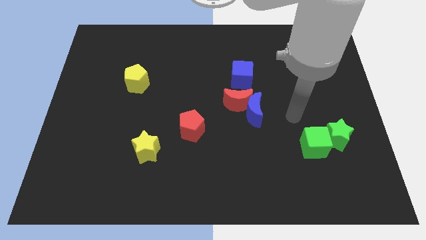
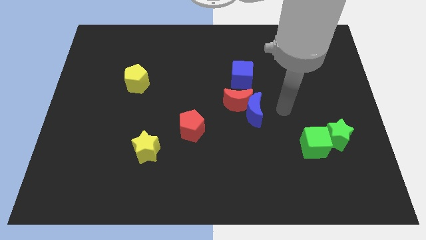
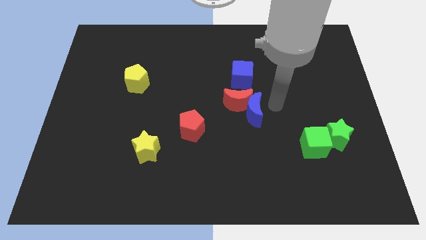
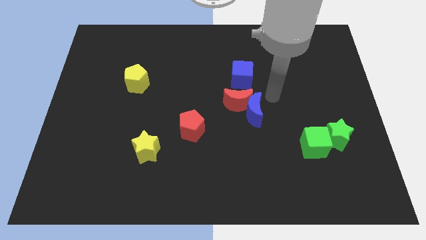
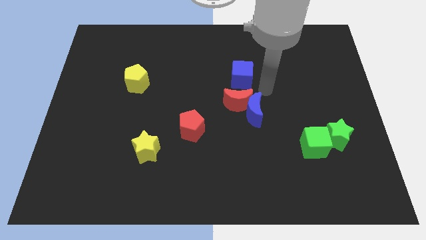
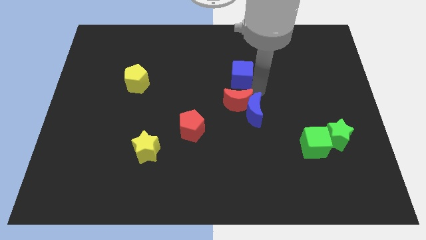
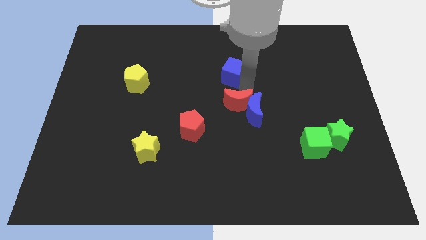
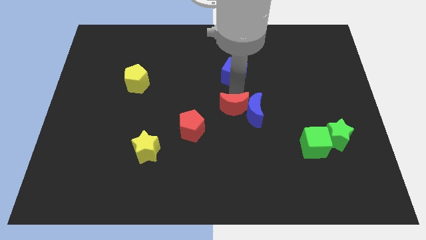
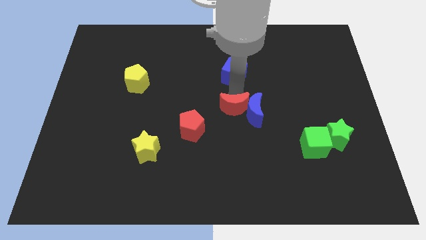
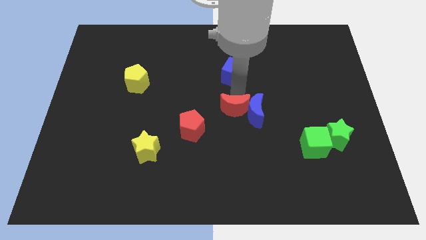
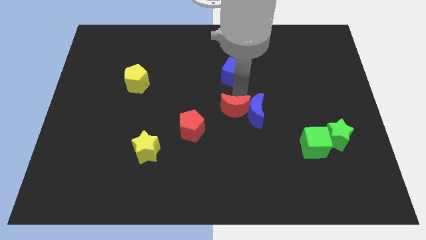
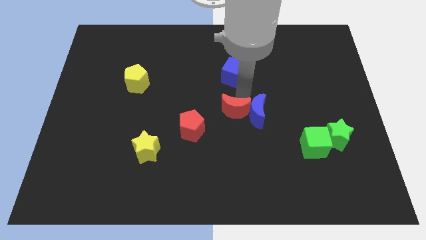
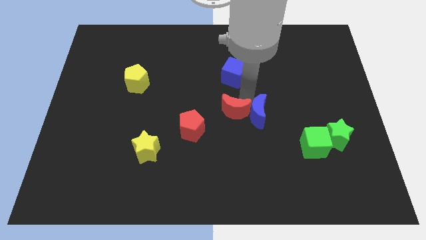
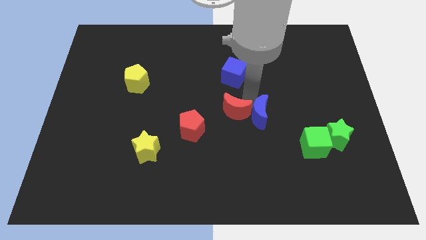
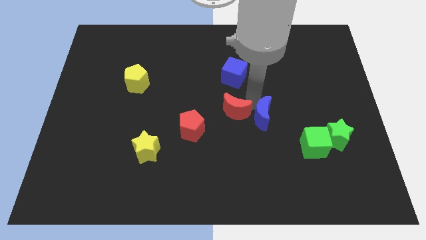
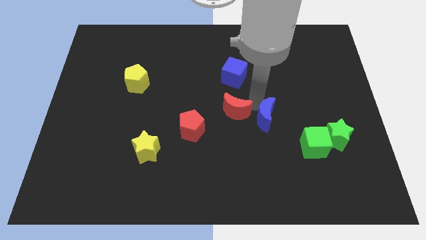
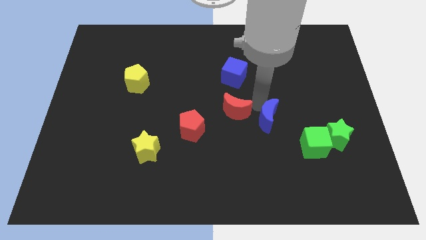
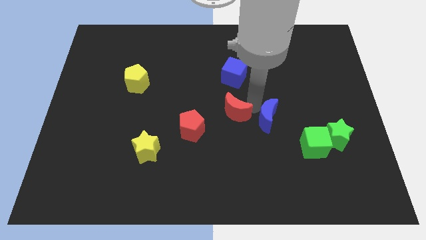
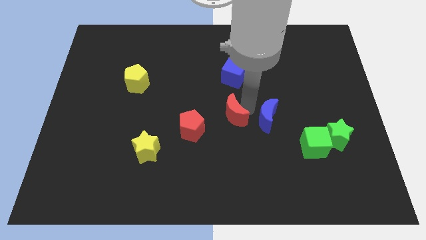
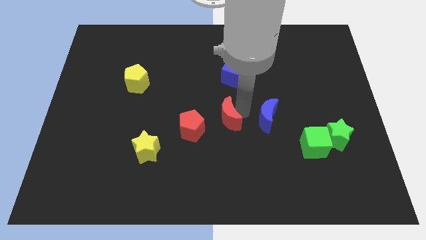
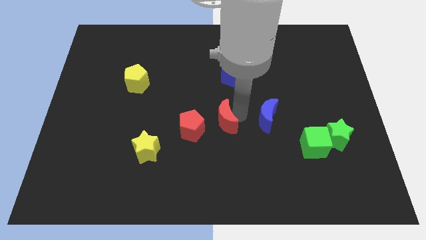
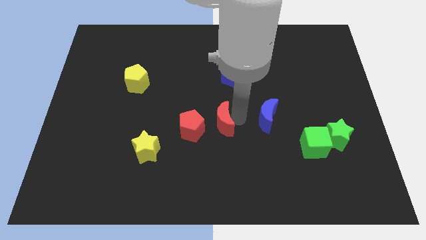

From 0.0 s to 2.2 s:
separate the blue moon from the red moon

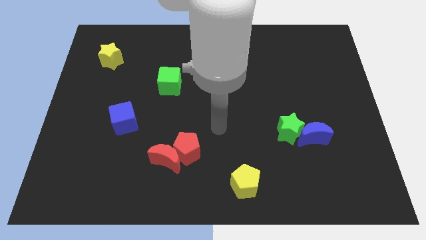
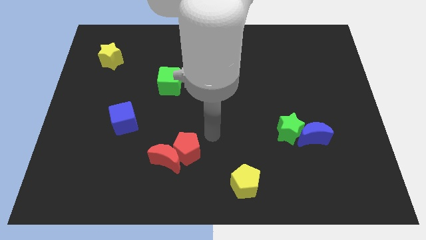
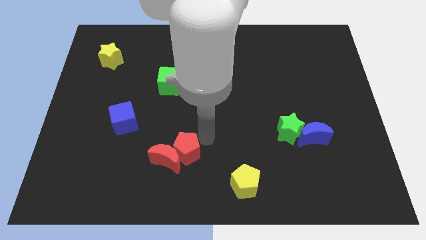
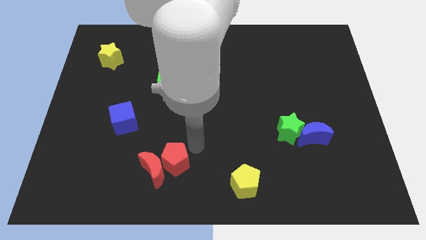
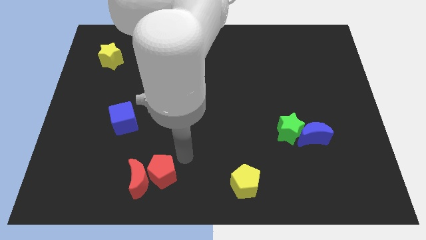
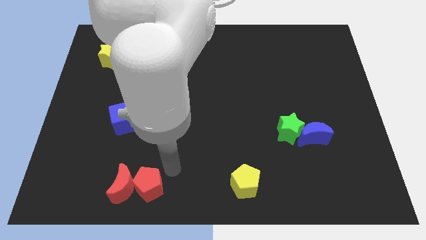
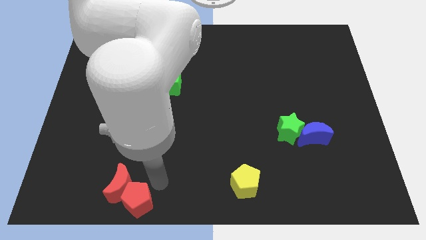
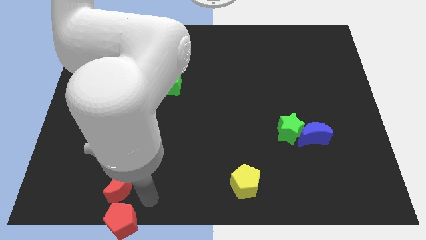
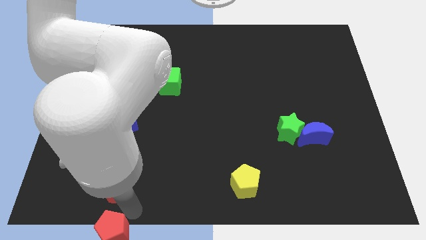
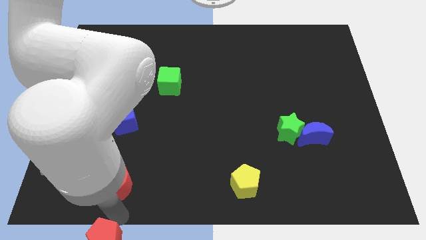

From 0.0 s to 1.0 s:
separate the red moon from the red pentagon

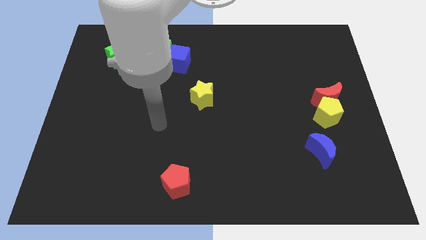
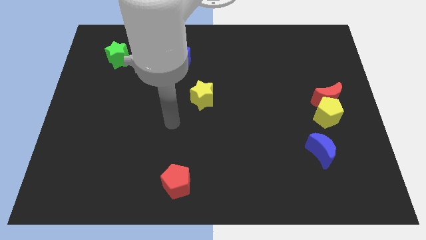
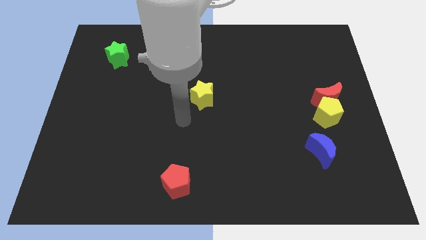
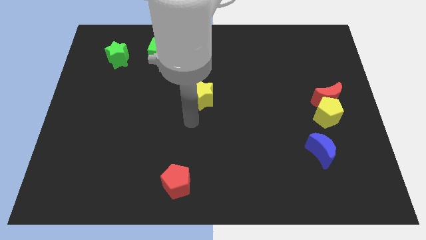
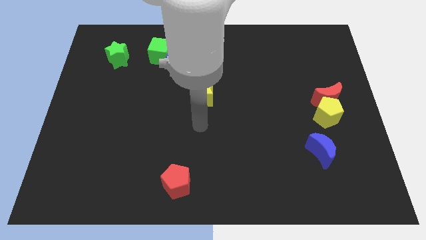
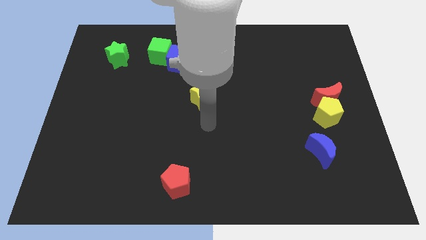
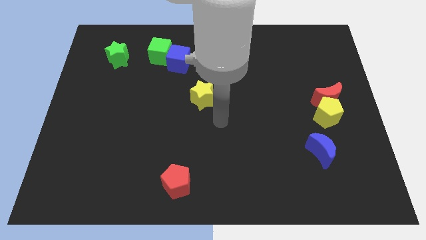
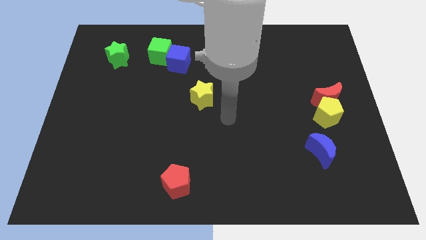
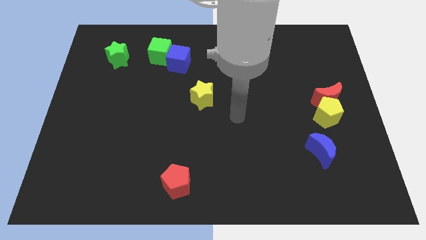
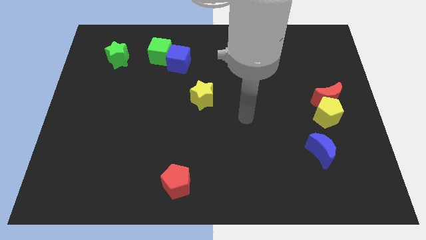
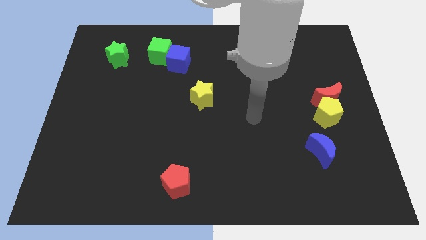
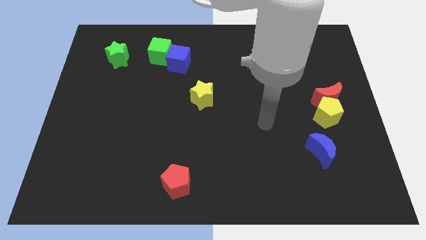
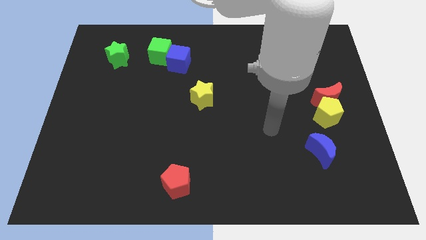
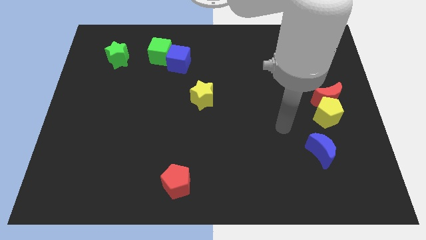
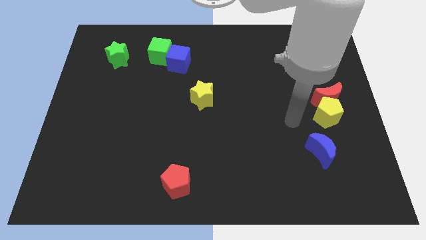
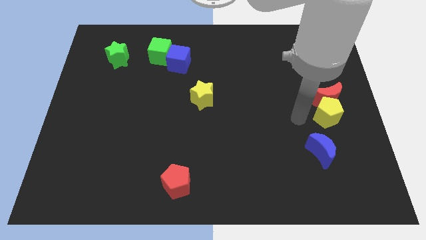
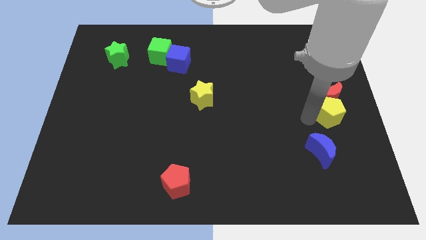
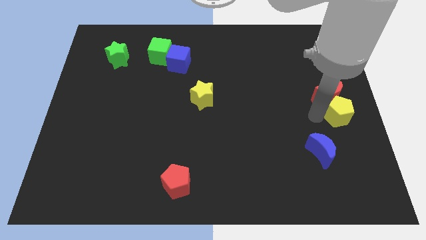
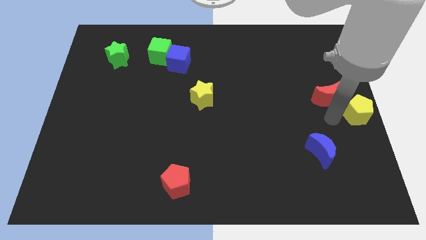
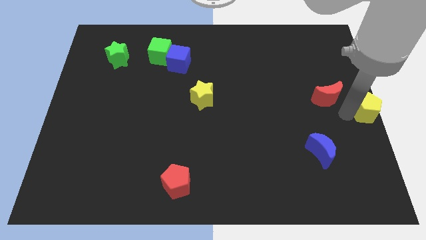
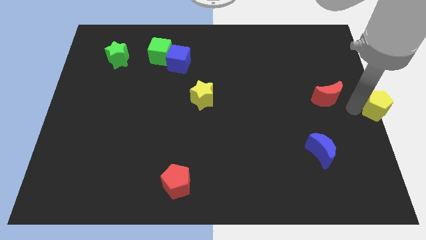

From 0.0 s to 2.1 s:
separate the red moon from the yellow pentagon

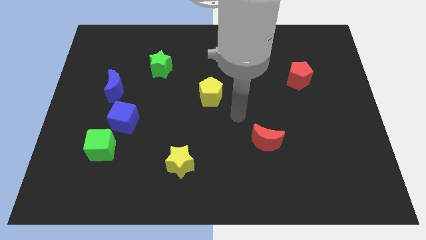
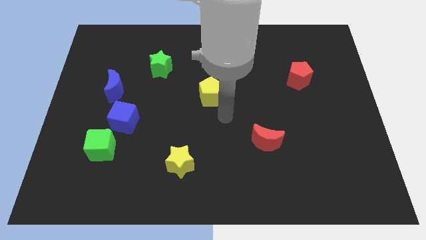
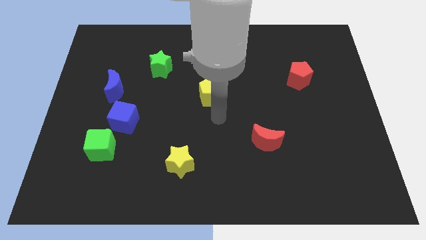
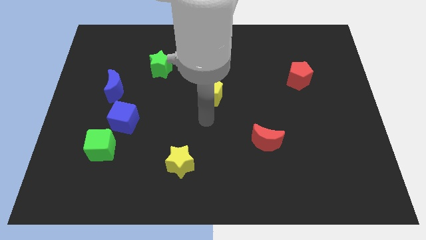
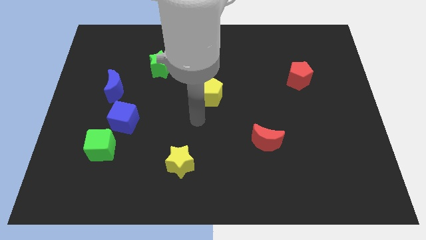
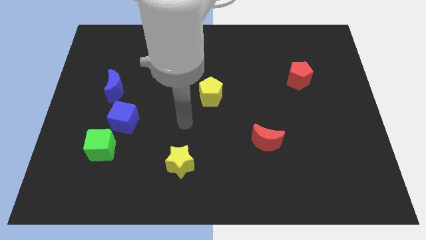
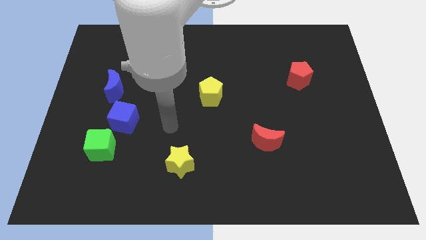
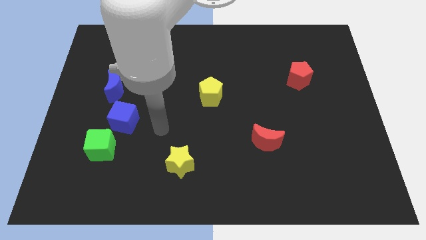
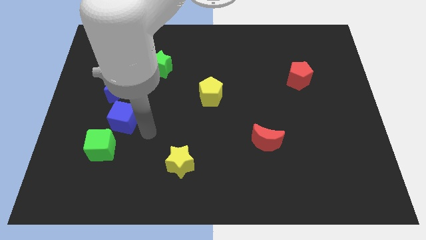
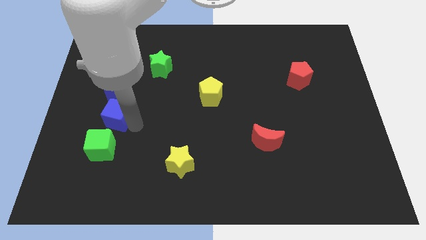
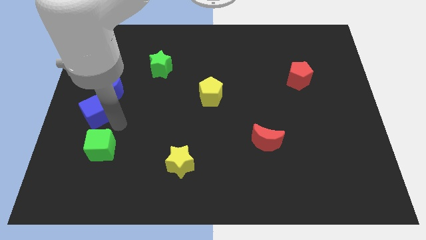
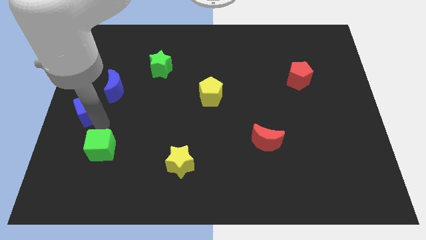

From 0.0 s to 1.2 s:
pull the green cube apart from the blue cube

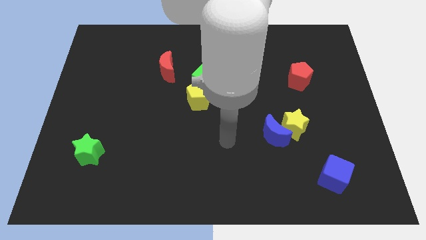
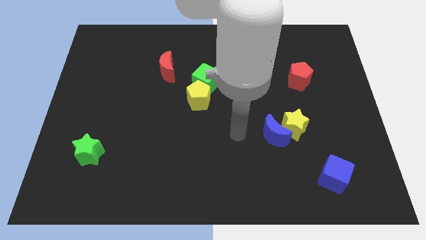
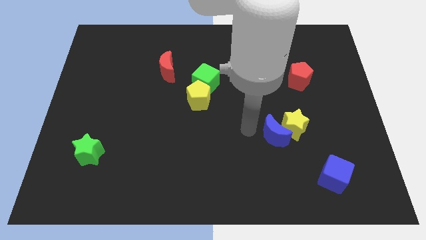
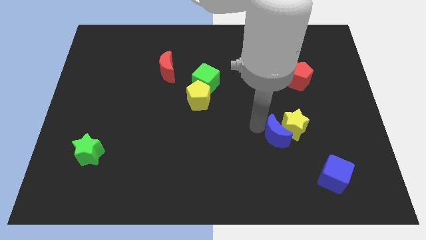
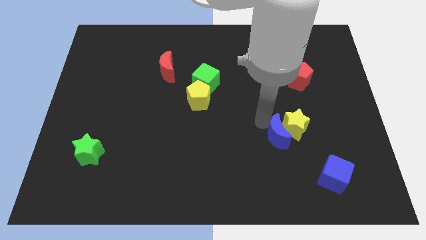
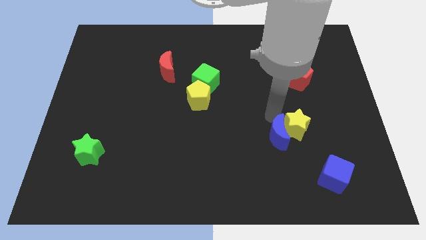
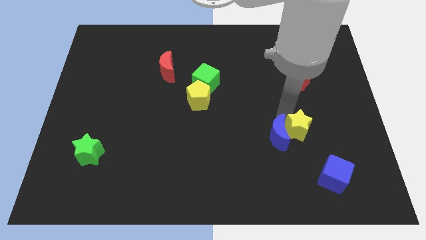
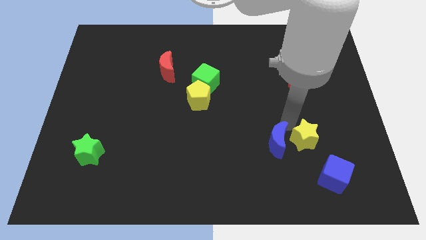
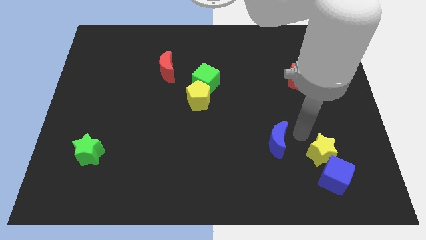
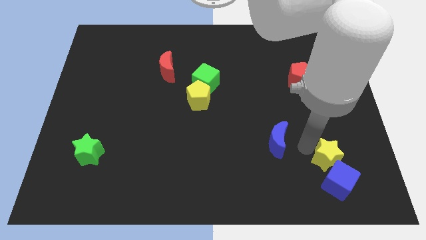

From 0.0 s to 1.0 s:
pull the blue moon apart from the yellow star

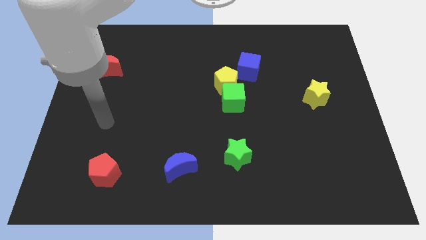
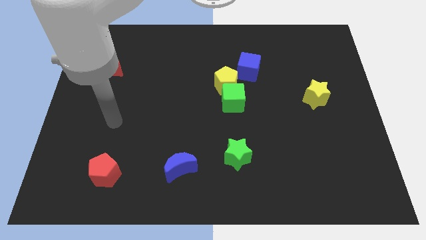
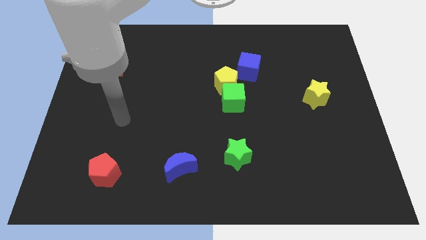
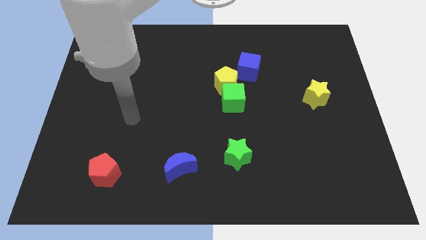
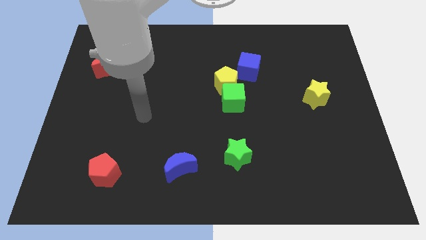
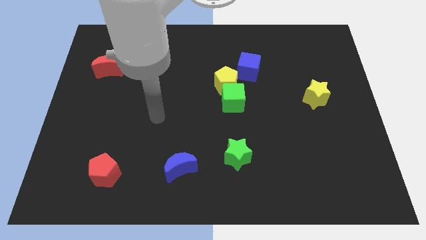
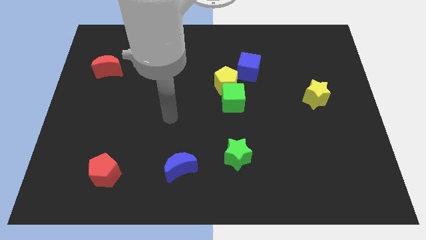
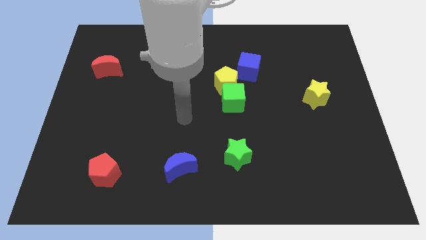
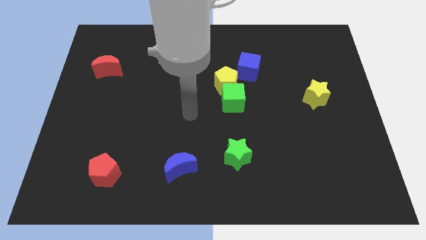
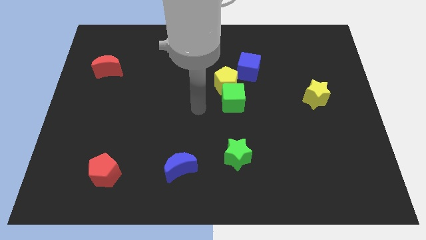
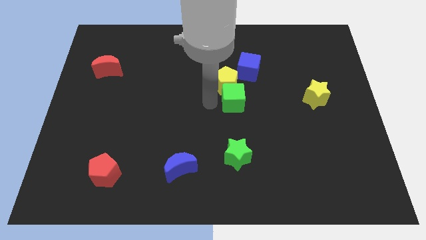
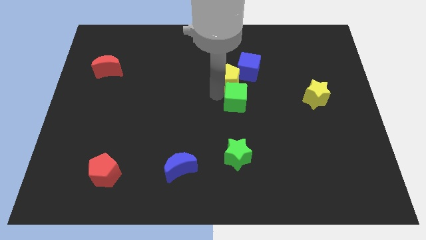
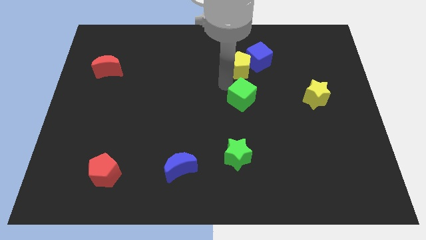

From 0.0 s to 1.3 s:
pull the green cube apart from the yellow pentagon

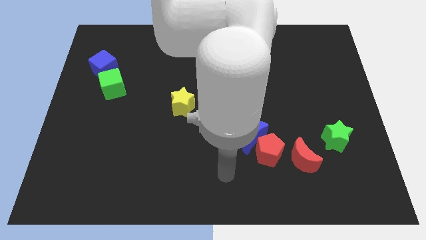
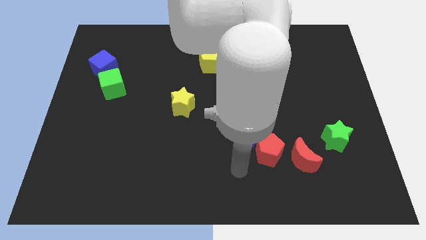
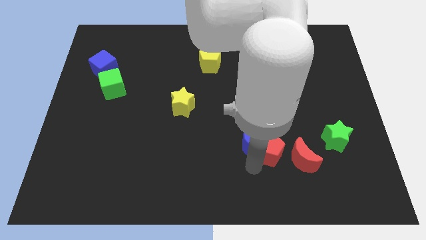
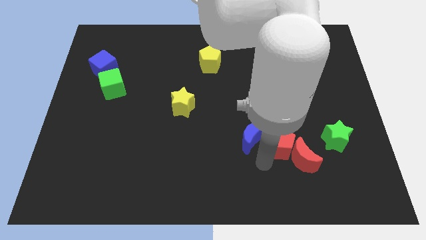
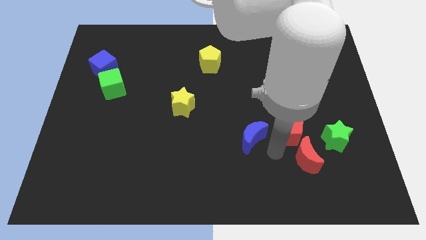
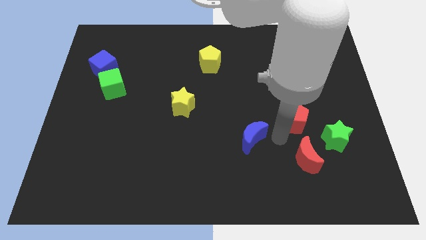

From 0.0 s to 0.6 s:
separate the blue moon from the red pentagon
